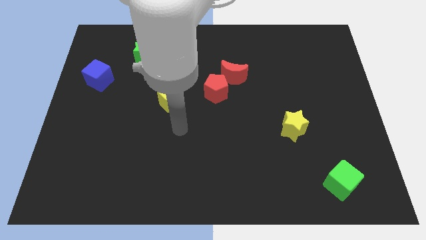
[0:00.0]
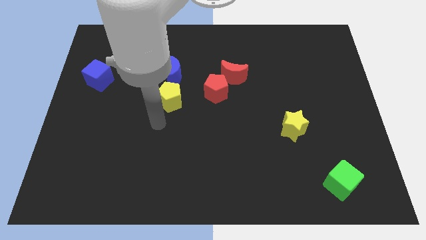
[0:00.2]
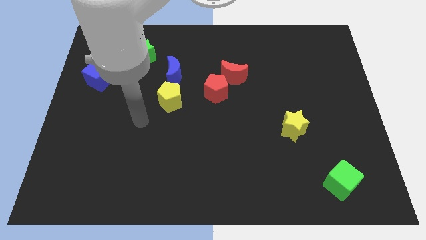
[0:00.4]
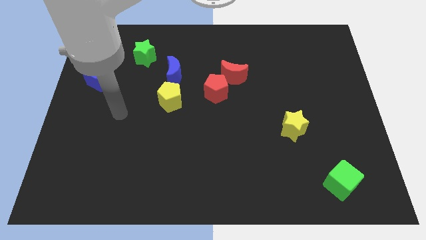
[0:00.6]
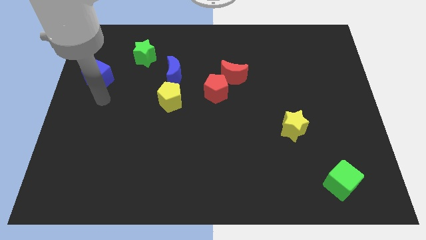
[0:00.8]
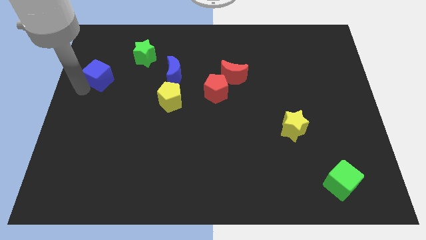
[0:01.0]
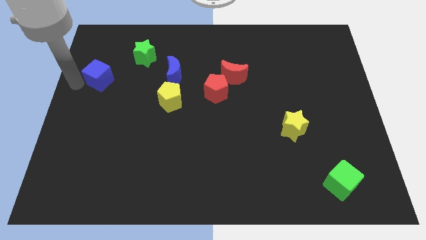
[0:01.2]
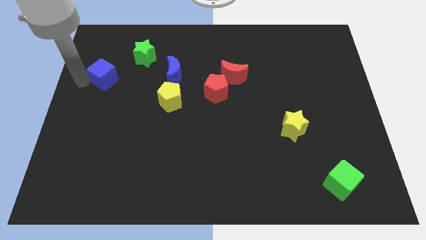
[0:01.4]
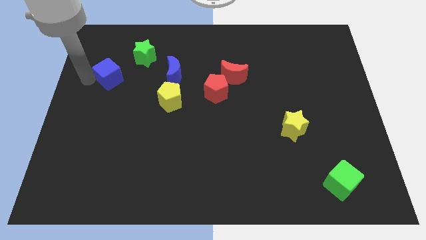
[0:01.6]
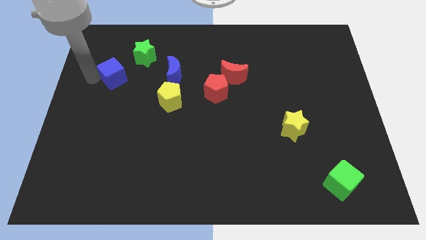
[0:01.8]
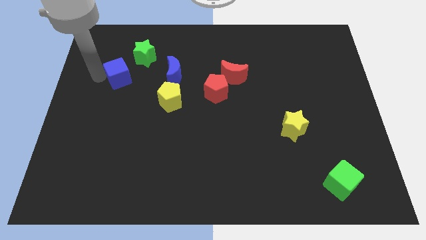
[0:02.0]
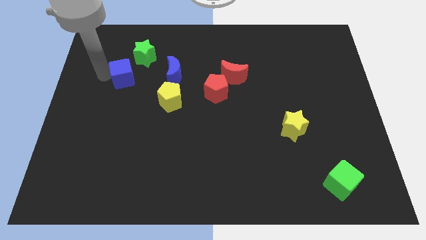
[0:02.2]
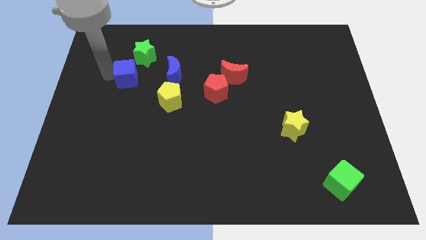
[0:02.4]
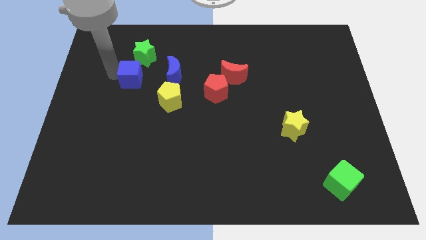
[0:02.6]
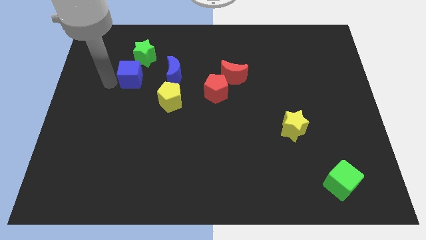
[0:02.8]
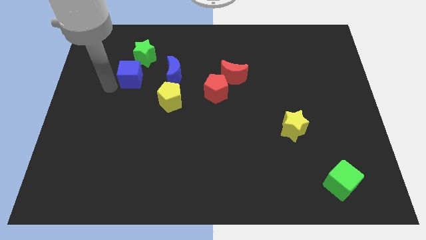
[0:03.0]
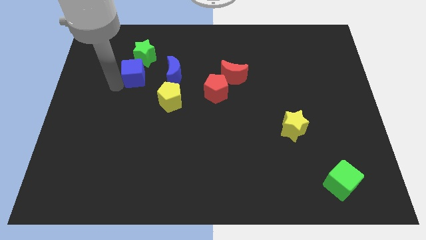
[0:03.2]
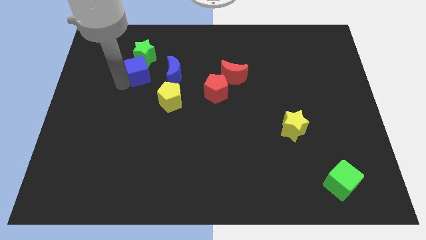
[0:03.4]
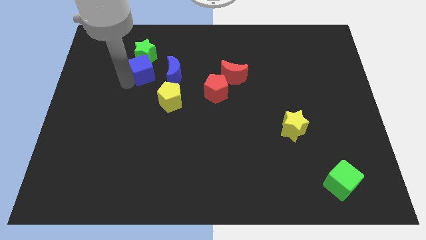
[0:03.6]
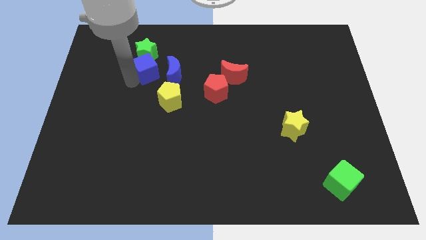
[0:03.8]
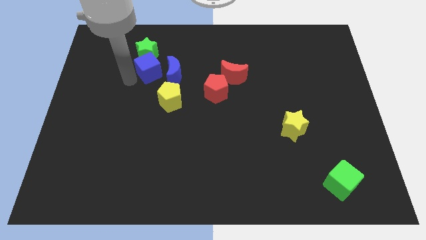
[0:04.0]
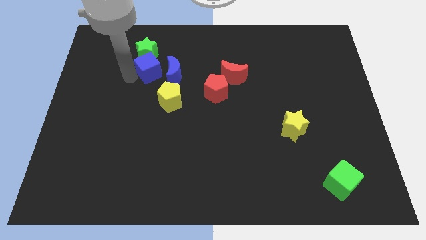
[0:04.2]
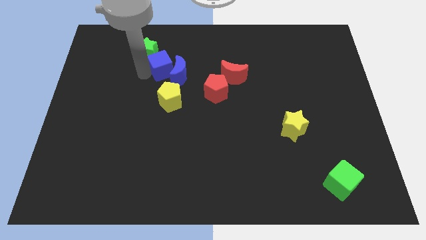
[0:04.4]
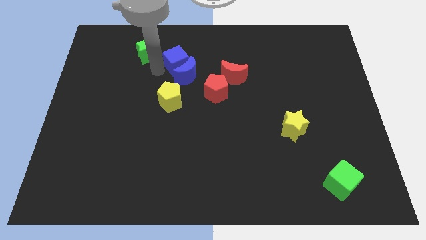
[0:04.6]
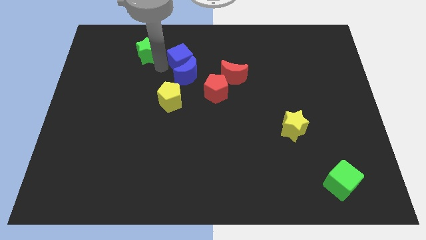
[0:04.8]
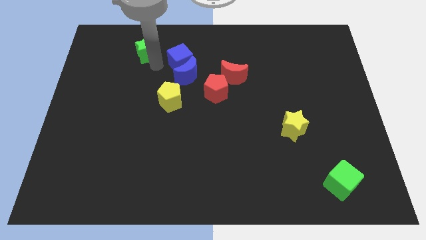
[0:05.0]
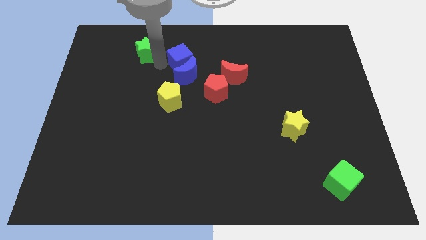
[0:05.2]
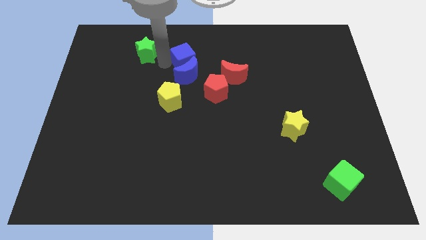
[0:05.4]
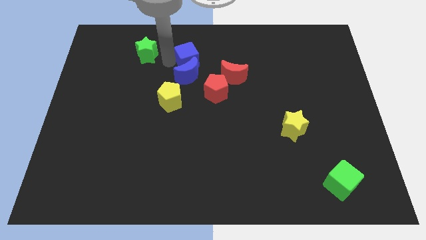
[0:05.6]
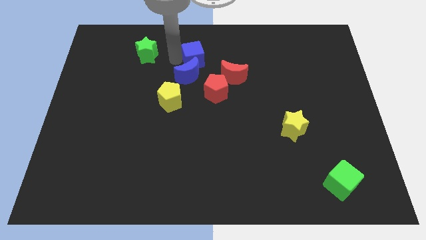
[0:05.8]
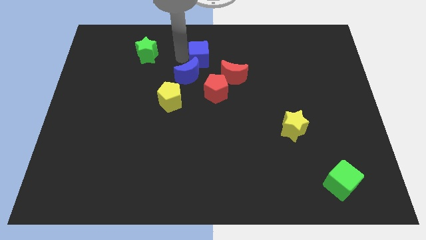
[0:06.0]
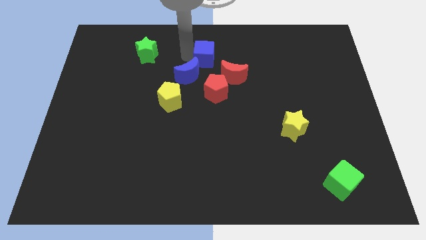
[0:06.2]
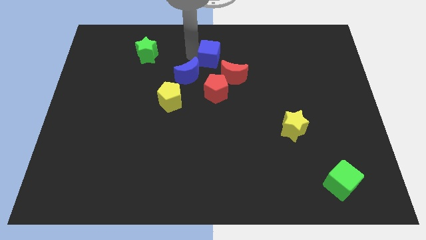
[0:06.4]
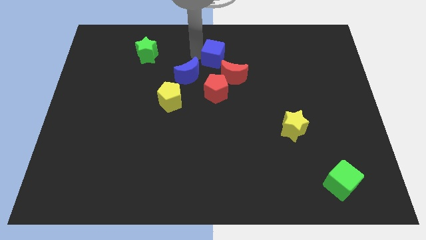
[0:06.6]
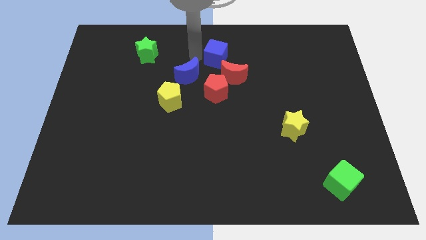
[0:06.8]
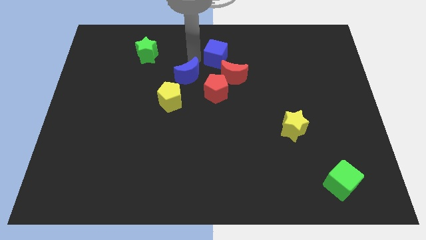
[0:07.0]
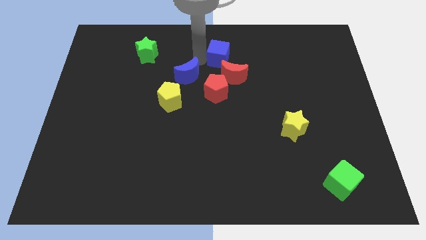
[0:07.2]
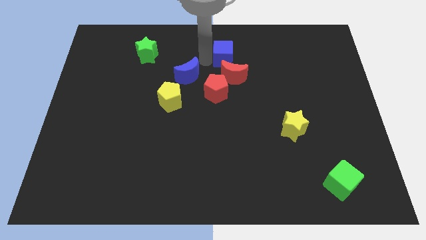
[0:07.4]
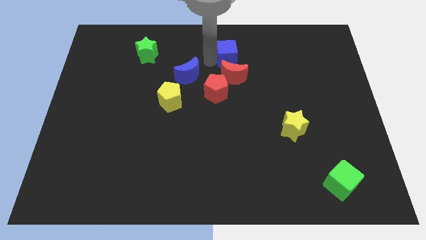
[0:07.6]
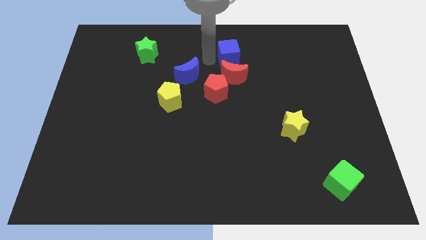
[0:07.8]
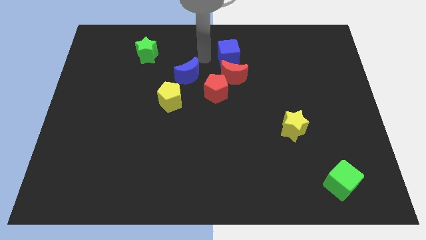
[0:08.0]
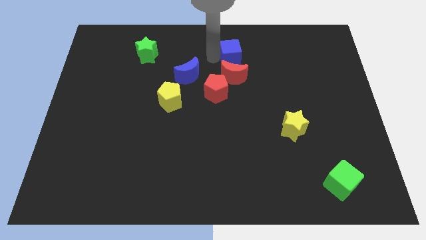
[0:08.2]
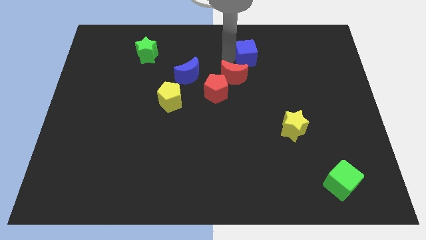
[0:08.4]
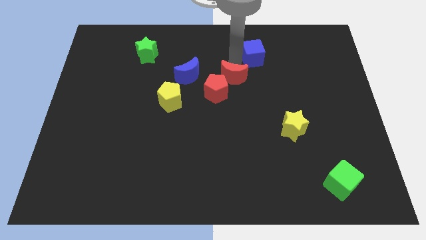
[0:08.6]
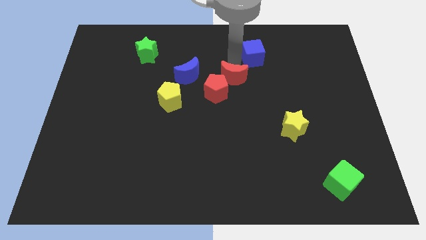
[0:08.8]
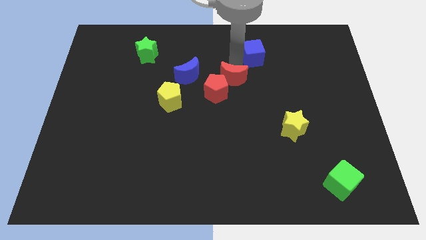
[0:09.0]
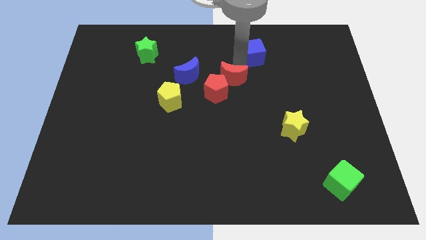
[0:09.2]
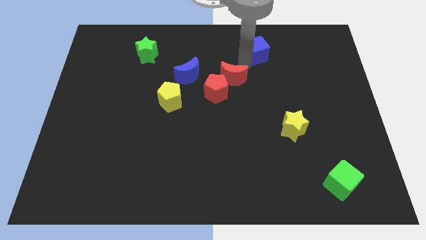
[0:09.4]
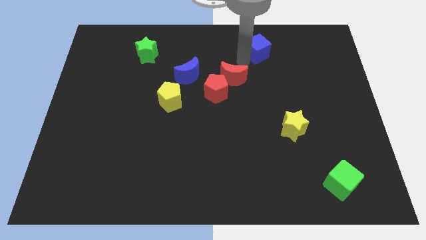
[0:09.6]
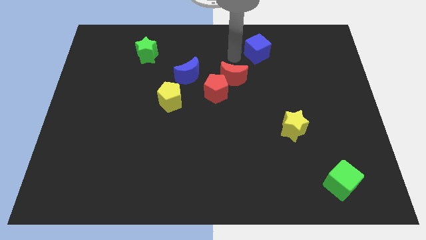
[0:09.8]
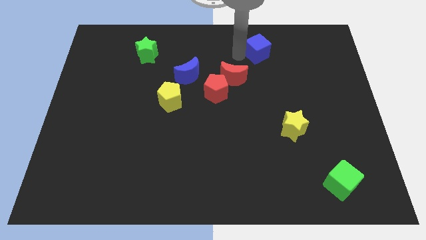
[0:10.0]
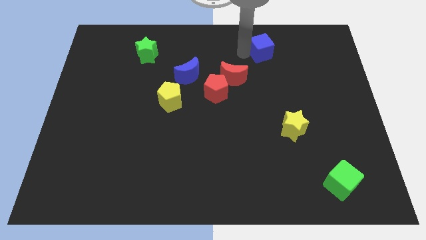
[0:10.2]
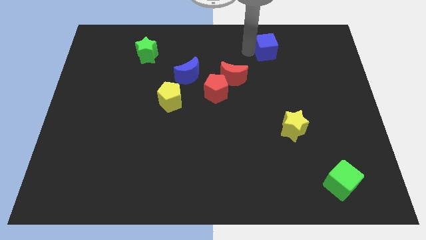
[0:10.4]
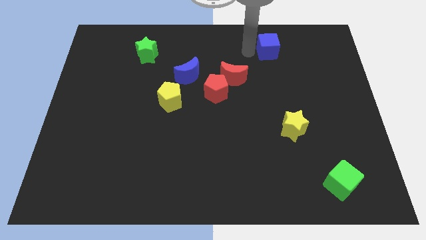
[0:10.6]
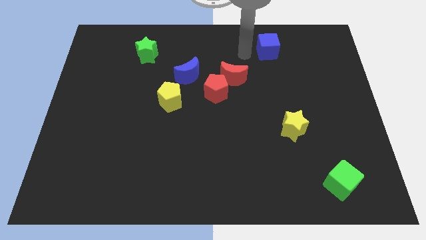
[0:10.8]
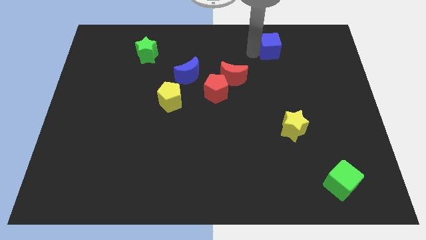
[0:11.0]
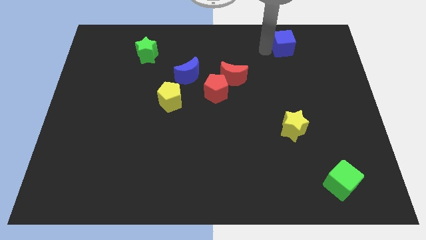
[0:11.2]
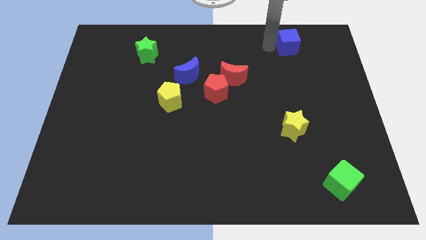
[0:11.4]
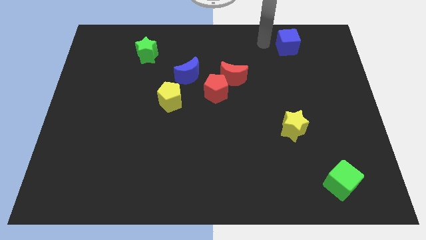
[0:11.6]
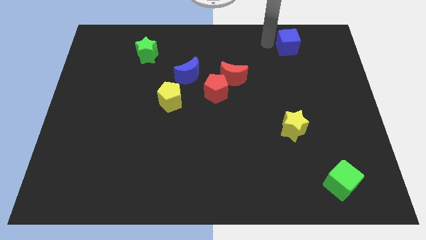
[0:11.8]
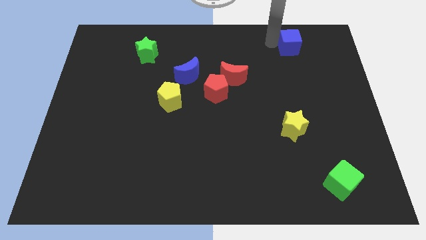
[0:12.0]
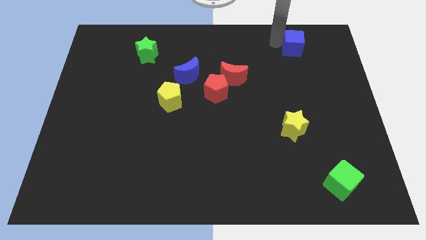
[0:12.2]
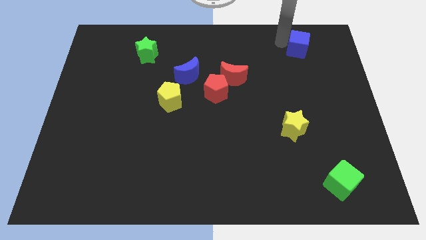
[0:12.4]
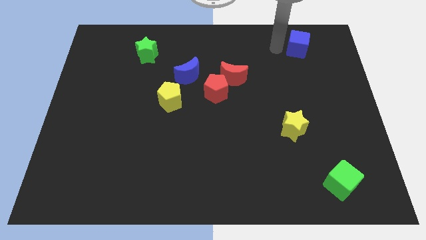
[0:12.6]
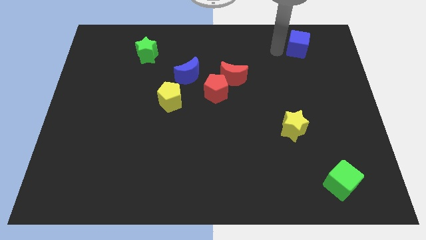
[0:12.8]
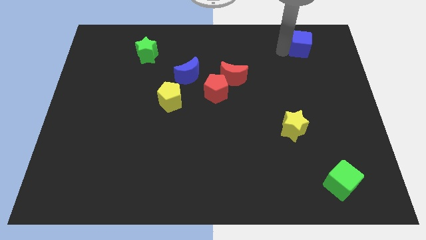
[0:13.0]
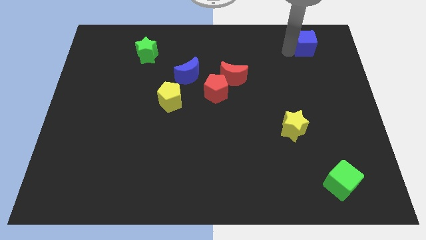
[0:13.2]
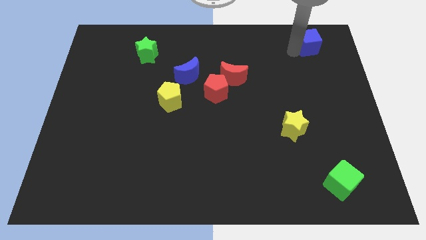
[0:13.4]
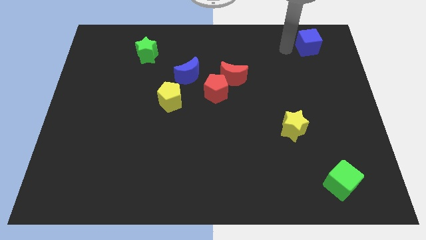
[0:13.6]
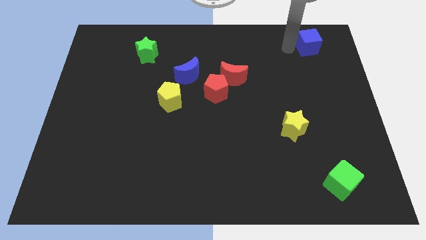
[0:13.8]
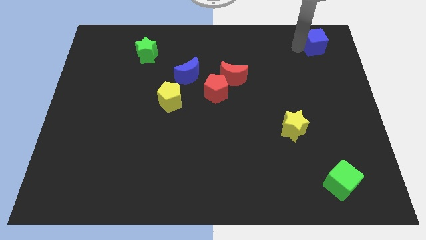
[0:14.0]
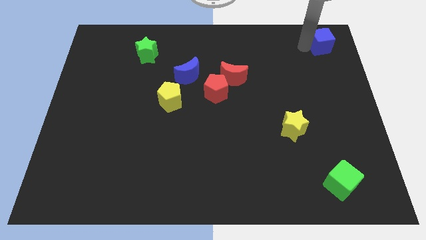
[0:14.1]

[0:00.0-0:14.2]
slide the blue cube to the upper right corner
